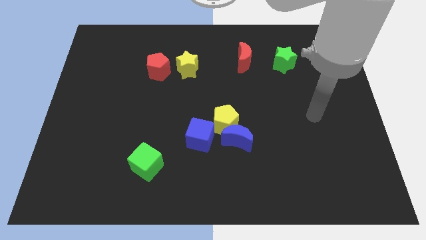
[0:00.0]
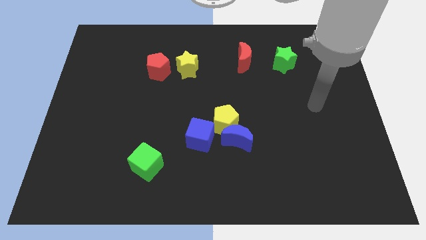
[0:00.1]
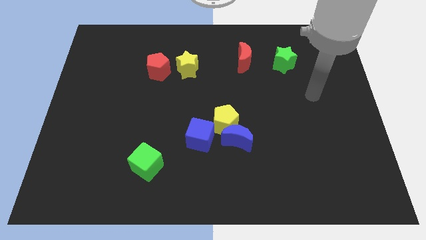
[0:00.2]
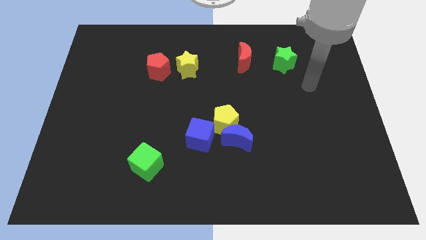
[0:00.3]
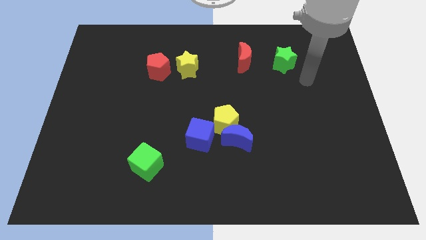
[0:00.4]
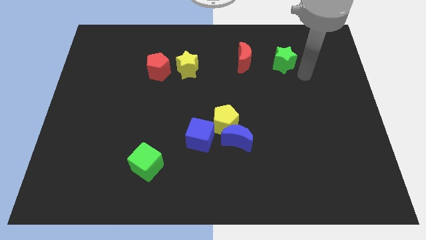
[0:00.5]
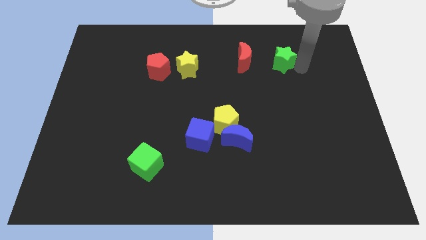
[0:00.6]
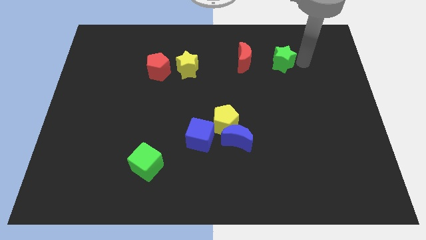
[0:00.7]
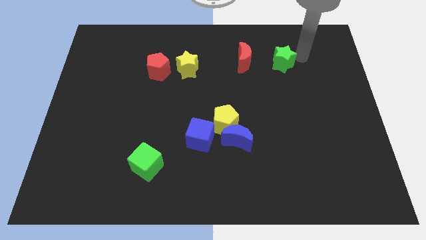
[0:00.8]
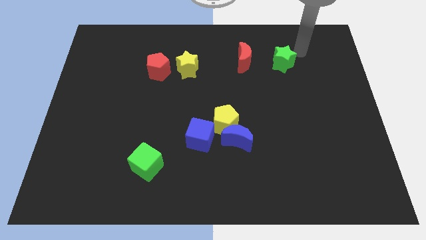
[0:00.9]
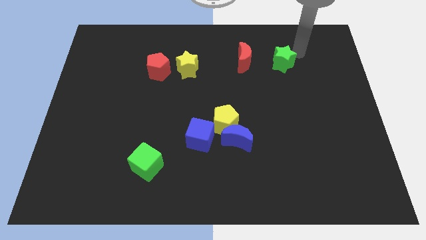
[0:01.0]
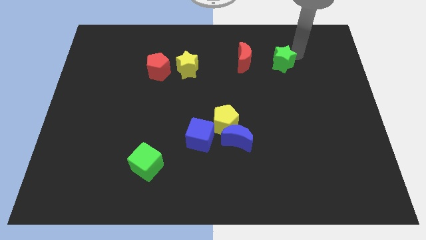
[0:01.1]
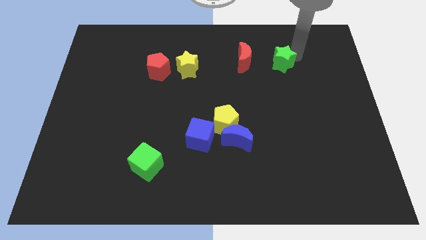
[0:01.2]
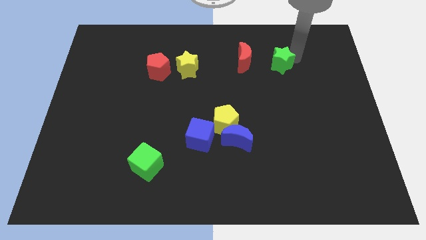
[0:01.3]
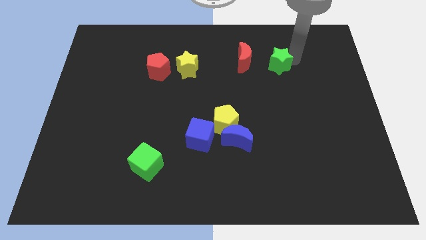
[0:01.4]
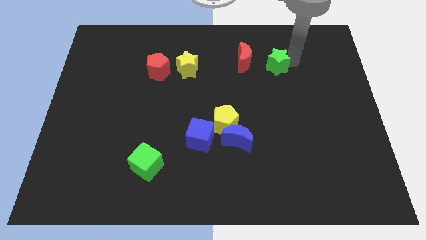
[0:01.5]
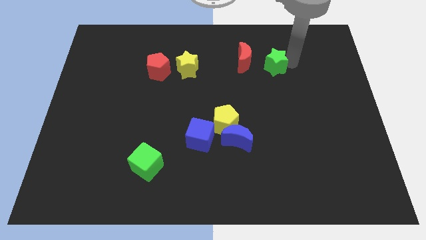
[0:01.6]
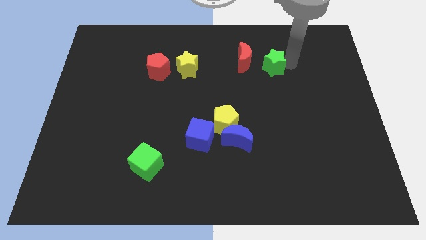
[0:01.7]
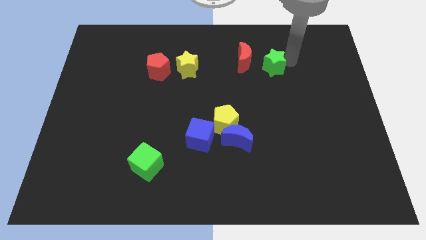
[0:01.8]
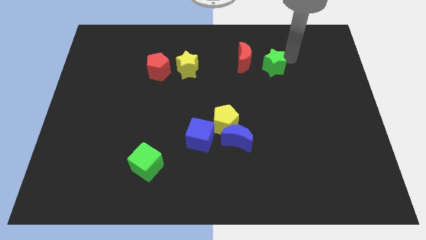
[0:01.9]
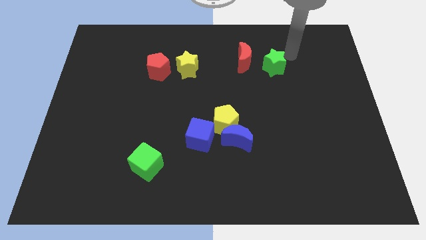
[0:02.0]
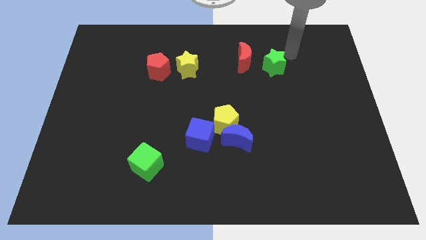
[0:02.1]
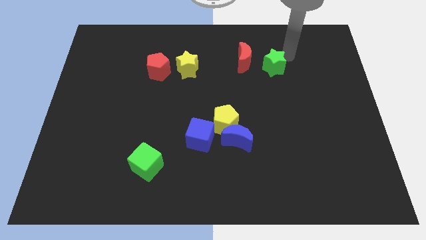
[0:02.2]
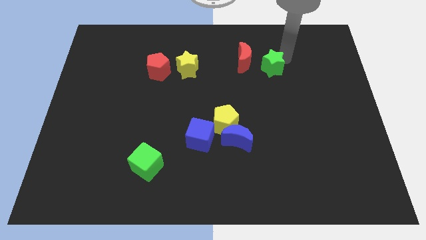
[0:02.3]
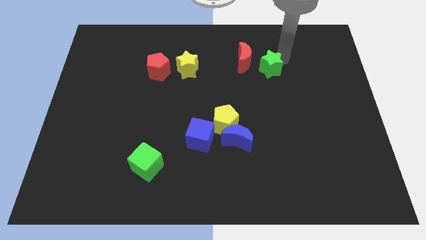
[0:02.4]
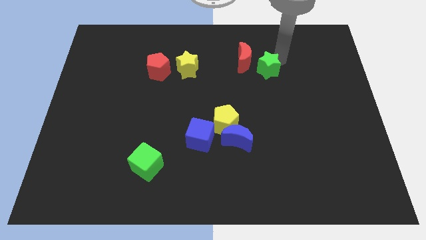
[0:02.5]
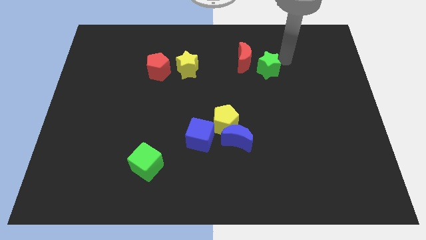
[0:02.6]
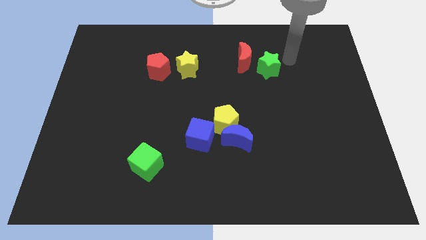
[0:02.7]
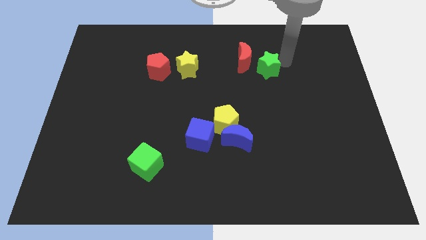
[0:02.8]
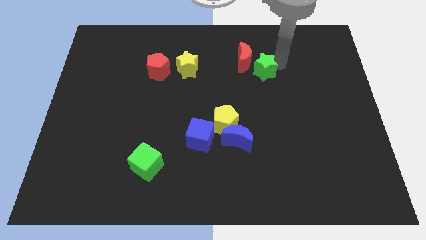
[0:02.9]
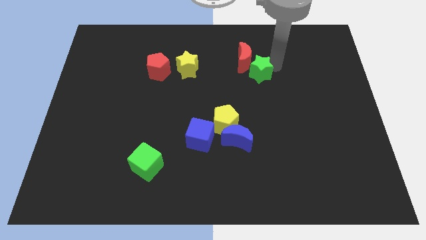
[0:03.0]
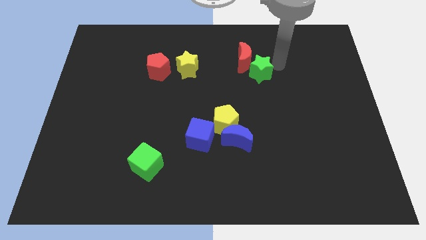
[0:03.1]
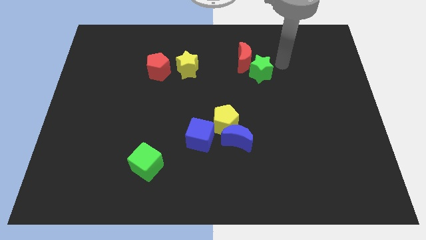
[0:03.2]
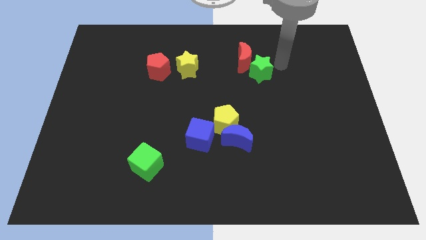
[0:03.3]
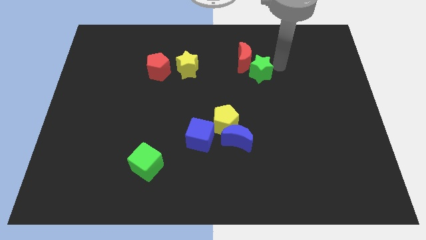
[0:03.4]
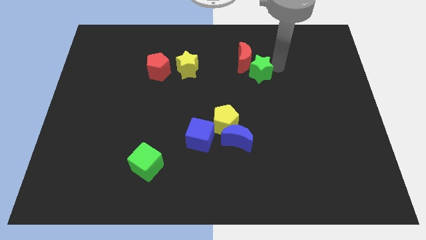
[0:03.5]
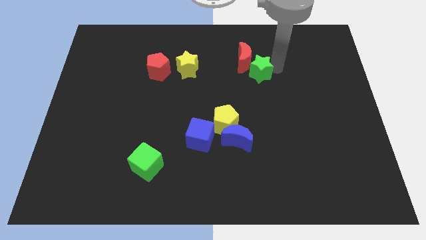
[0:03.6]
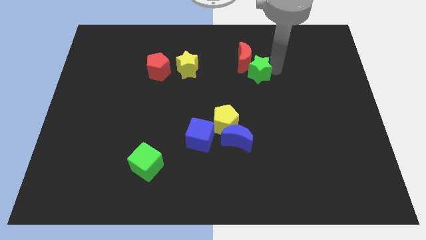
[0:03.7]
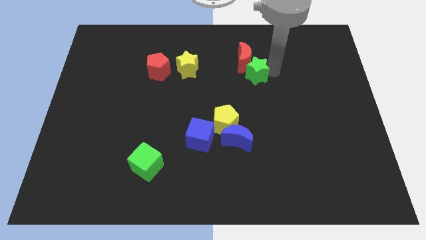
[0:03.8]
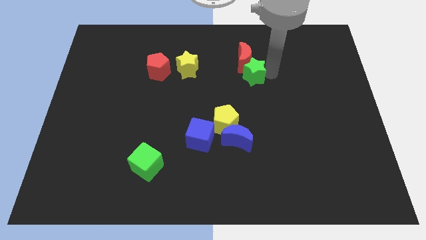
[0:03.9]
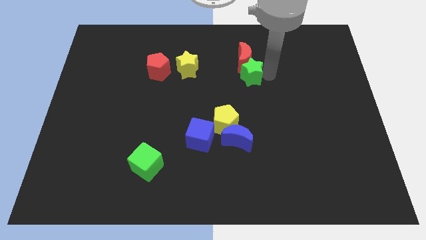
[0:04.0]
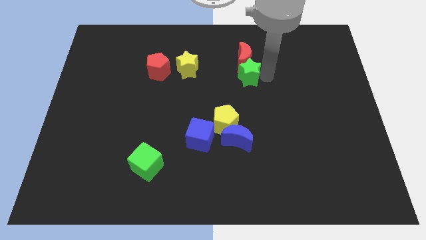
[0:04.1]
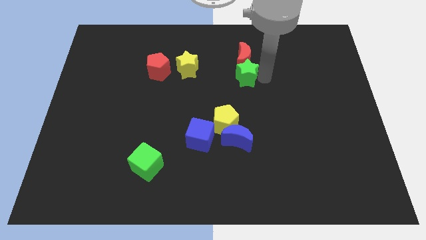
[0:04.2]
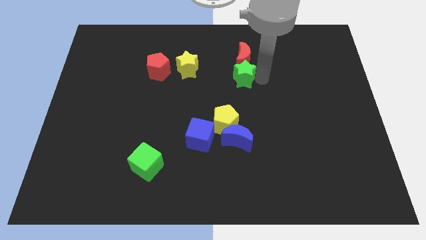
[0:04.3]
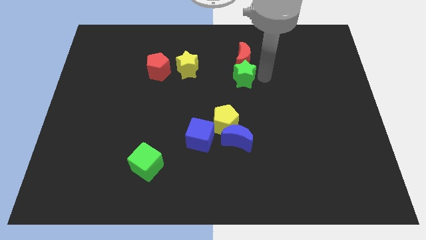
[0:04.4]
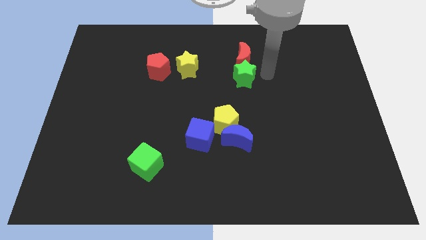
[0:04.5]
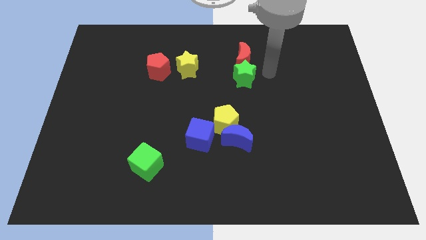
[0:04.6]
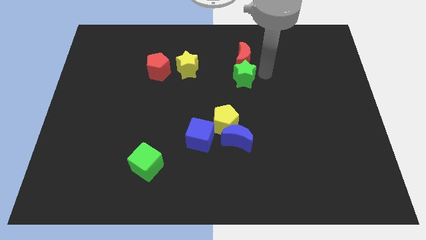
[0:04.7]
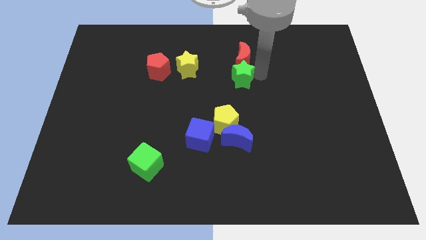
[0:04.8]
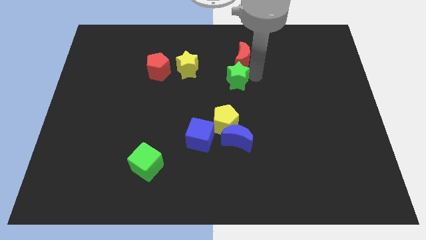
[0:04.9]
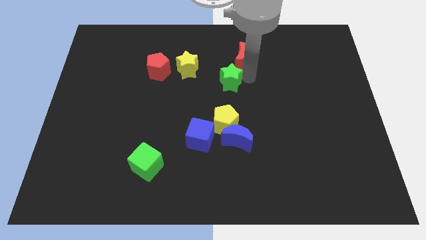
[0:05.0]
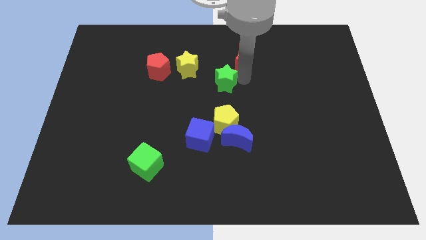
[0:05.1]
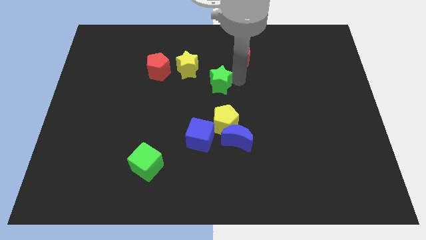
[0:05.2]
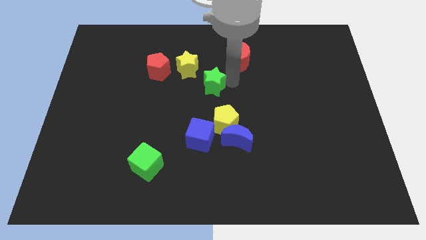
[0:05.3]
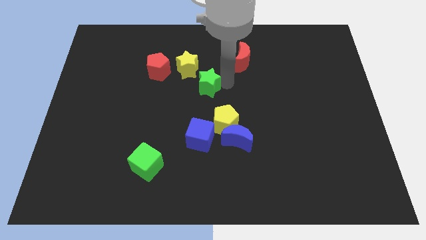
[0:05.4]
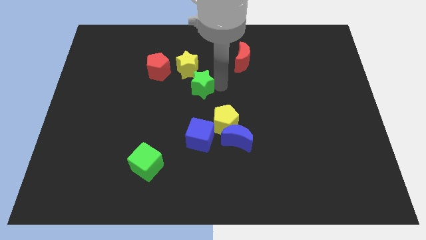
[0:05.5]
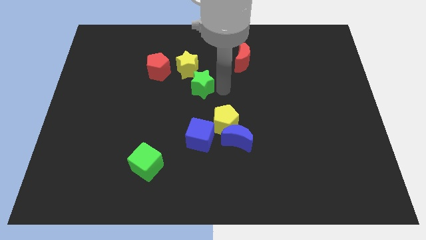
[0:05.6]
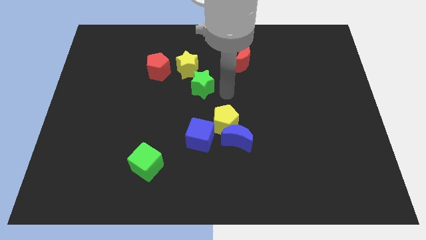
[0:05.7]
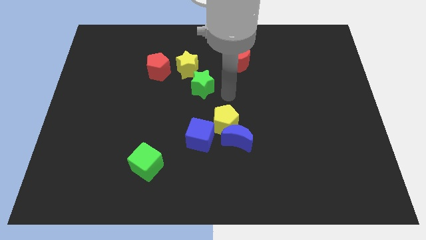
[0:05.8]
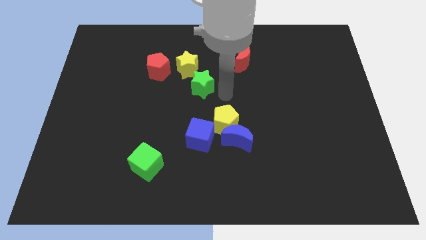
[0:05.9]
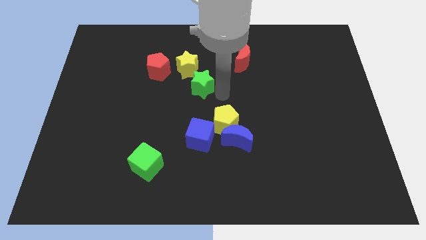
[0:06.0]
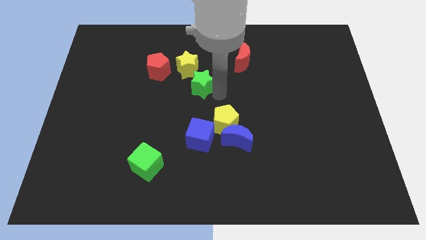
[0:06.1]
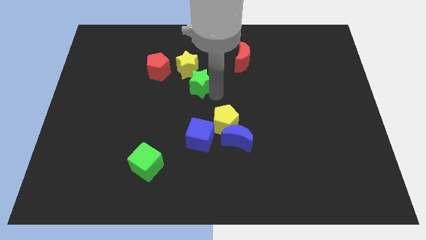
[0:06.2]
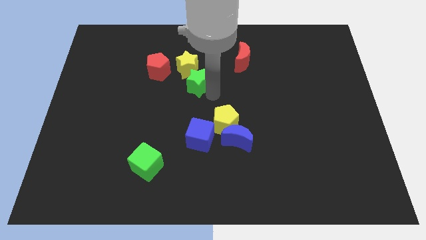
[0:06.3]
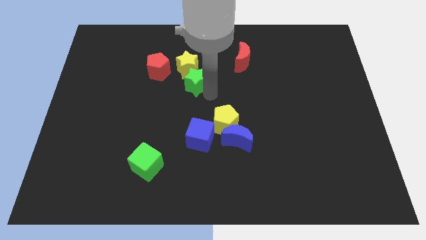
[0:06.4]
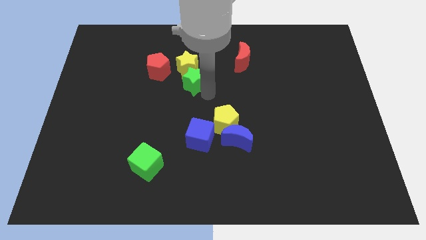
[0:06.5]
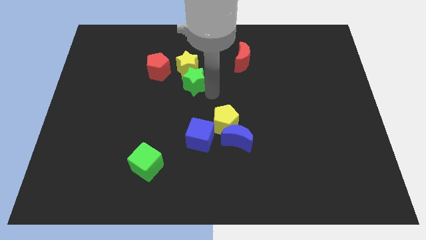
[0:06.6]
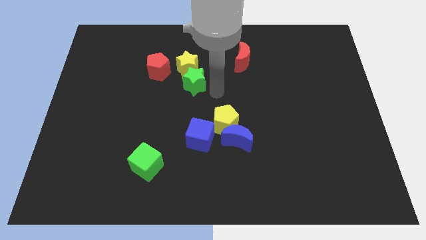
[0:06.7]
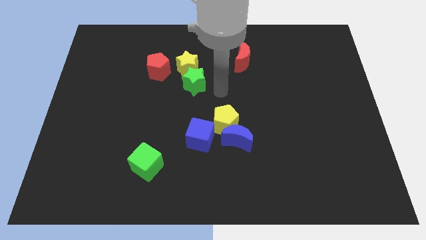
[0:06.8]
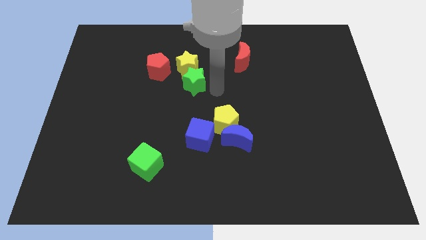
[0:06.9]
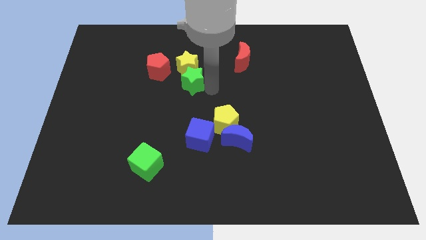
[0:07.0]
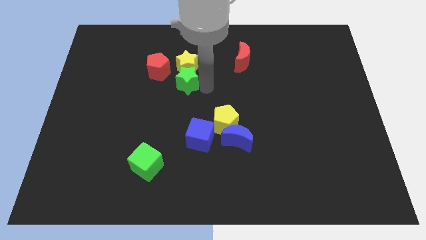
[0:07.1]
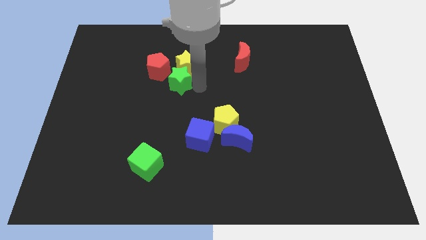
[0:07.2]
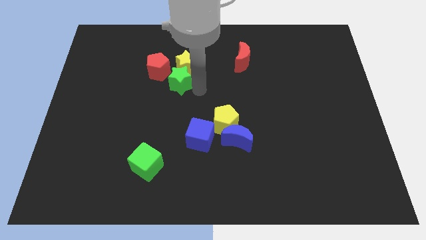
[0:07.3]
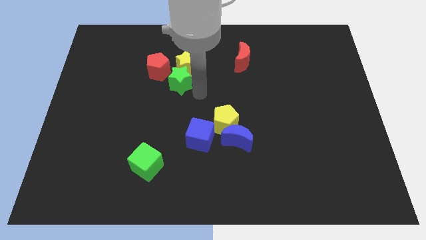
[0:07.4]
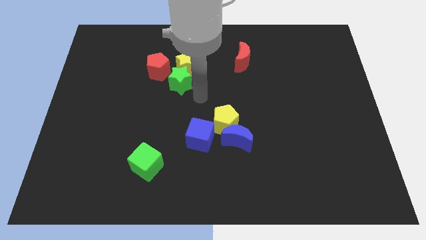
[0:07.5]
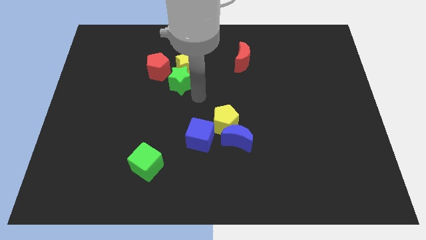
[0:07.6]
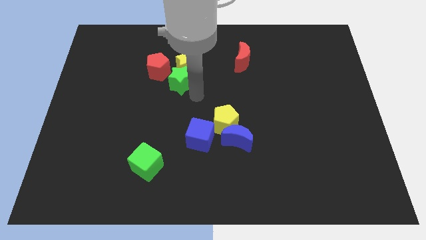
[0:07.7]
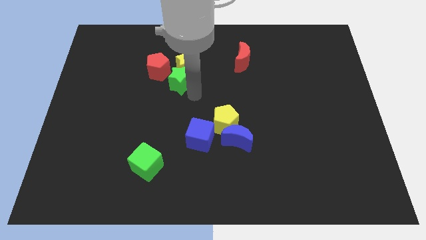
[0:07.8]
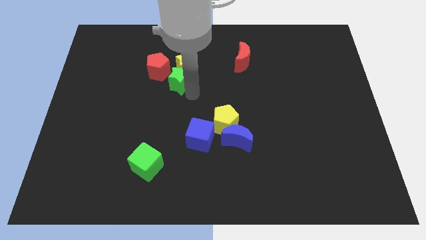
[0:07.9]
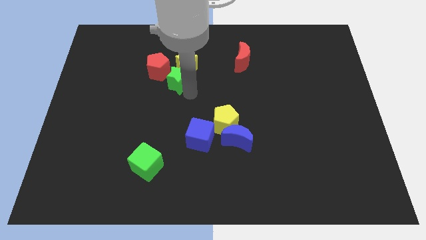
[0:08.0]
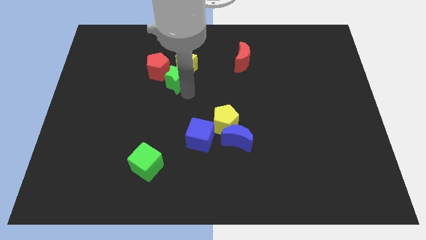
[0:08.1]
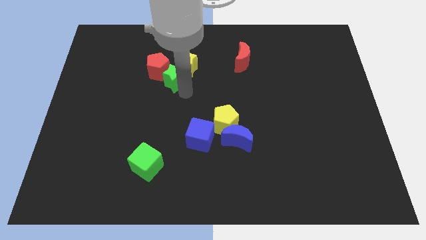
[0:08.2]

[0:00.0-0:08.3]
put the green star towards the red pentagon
